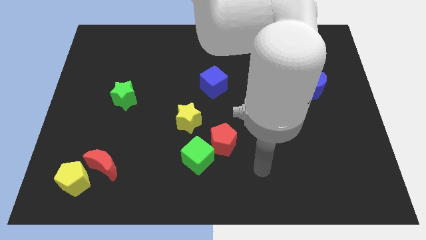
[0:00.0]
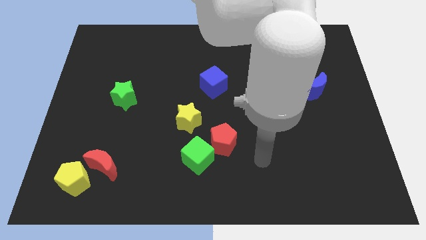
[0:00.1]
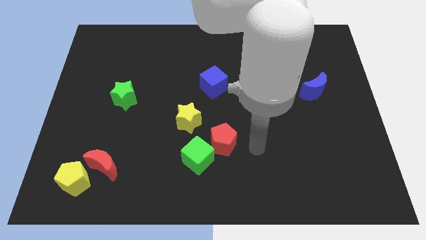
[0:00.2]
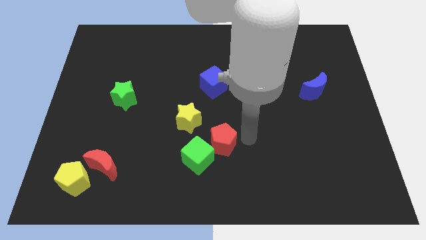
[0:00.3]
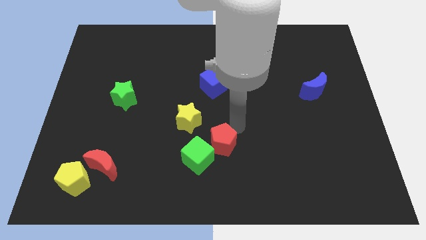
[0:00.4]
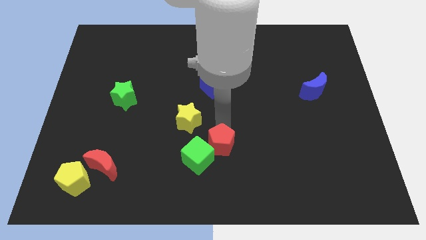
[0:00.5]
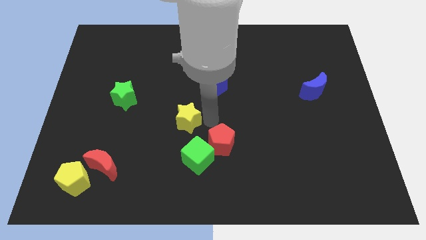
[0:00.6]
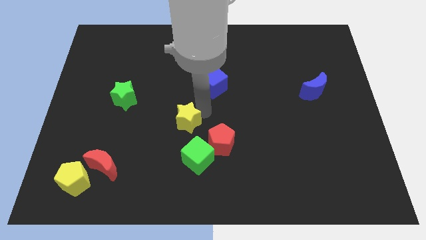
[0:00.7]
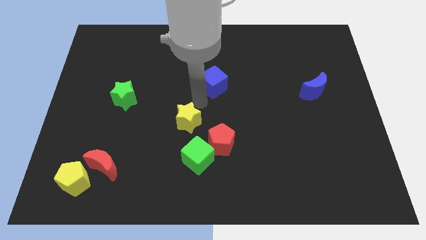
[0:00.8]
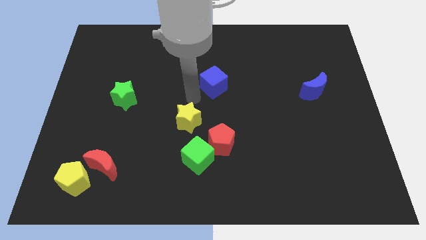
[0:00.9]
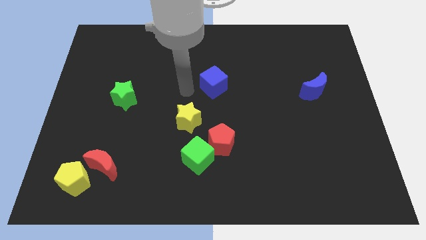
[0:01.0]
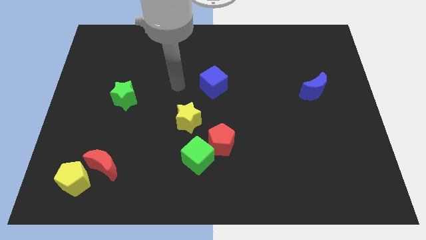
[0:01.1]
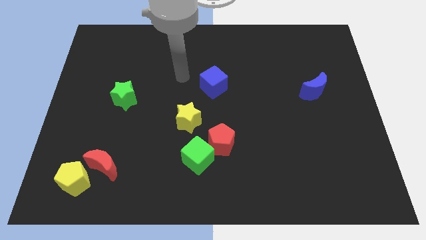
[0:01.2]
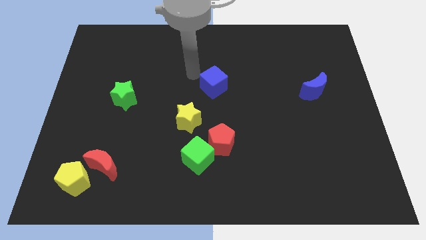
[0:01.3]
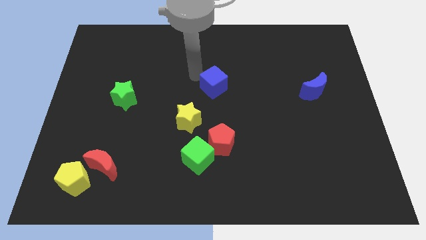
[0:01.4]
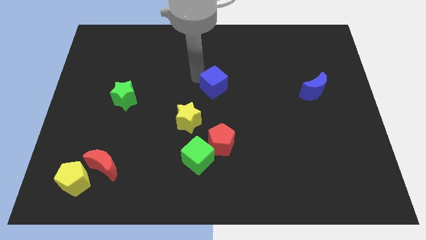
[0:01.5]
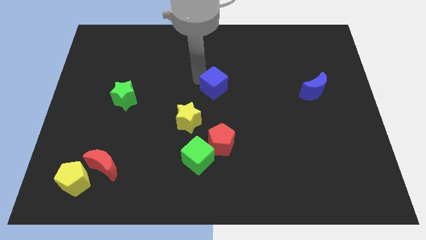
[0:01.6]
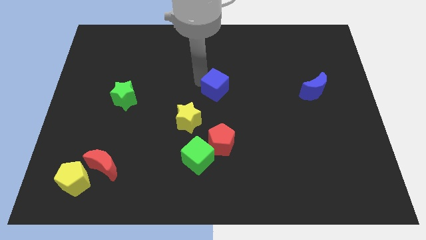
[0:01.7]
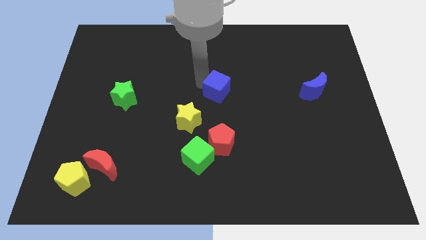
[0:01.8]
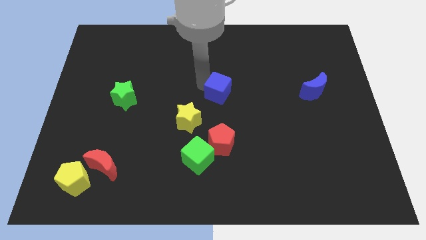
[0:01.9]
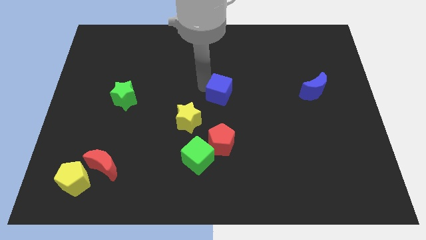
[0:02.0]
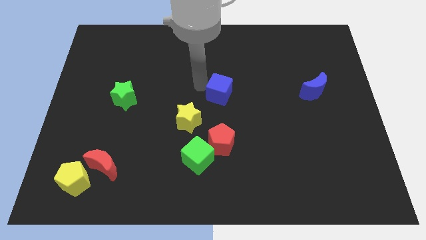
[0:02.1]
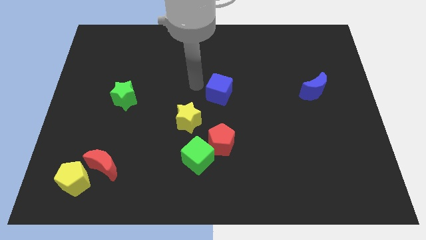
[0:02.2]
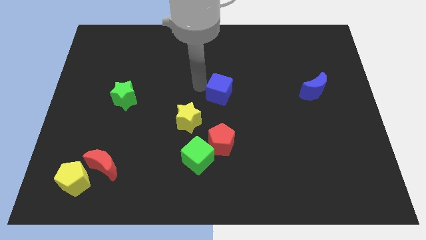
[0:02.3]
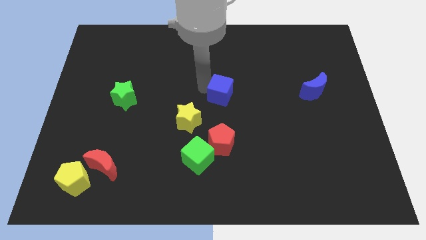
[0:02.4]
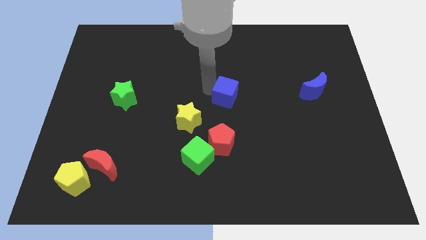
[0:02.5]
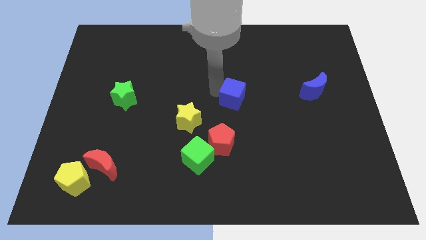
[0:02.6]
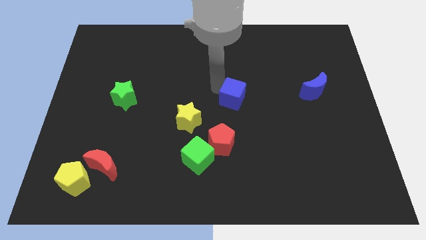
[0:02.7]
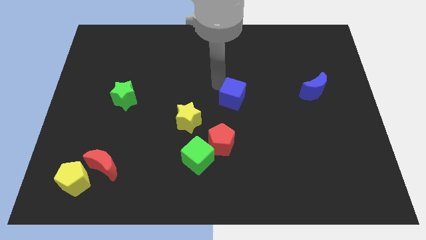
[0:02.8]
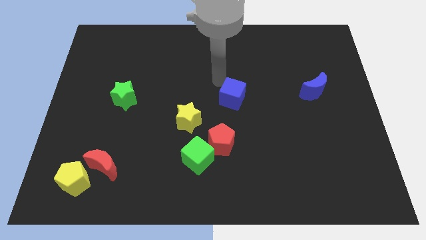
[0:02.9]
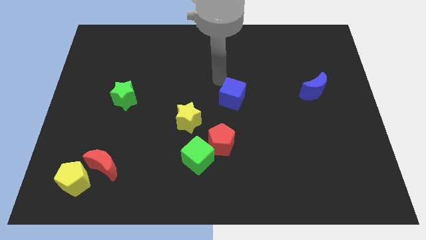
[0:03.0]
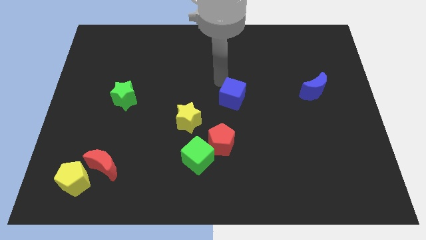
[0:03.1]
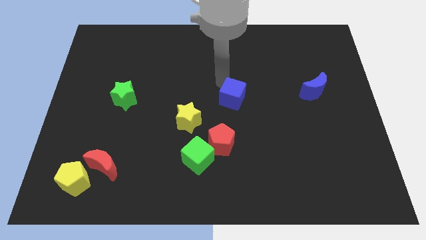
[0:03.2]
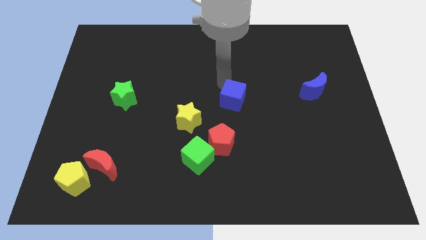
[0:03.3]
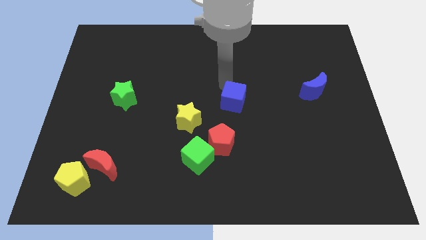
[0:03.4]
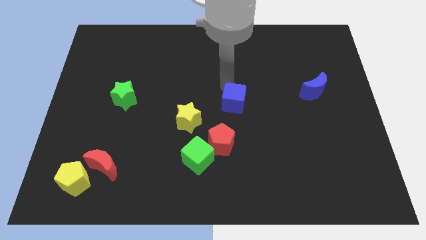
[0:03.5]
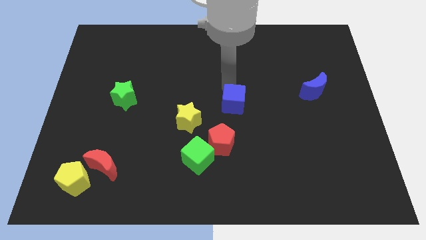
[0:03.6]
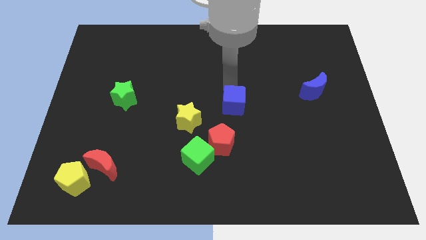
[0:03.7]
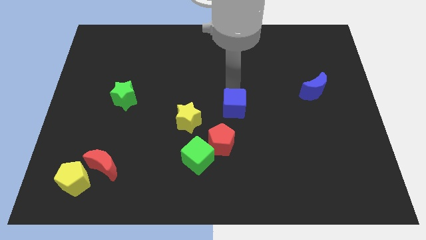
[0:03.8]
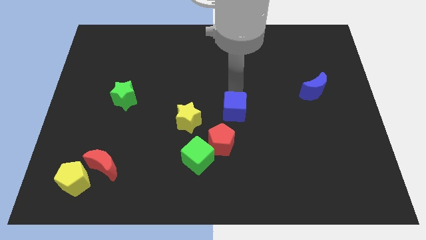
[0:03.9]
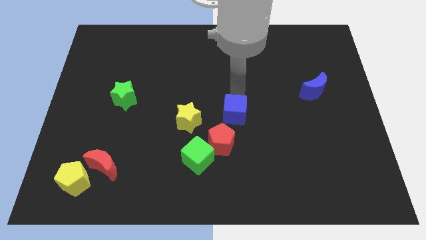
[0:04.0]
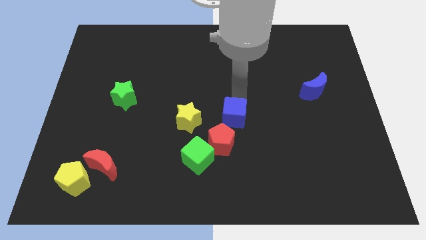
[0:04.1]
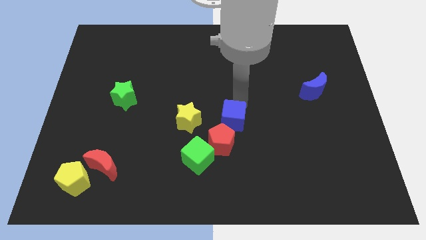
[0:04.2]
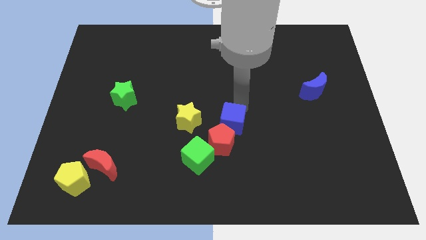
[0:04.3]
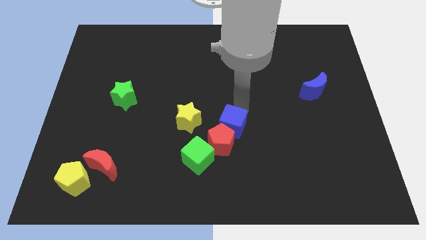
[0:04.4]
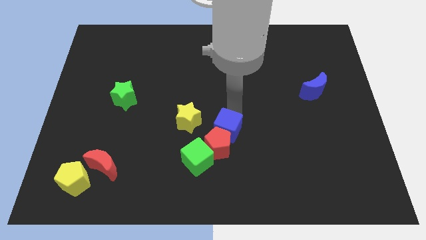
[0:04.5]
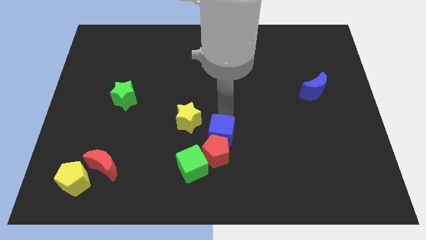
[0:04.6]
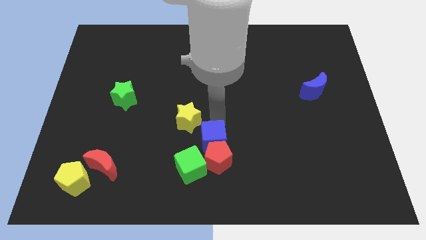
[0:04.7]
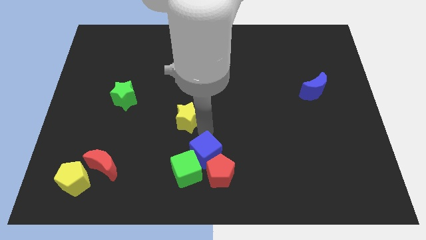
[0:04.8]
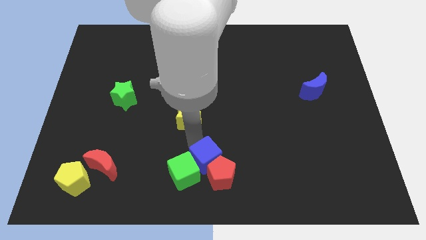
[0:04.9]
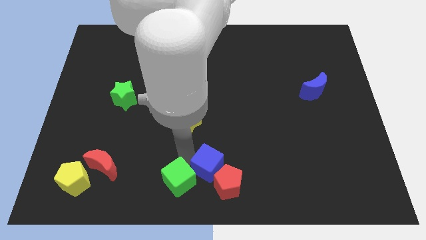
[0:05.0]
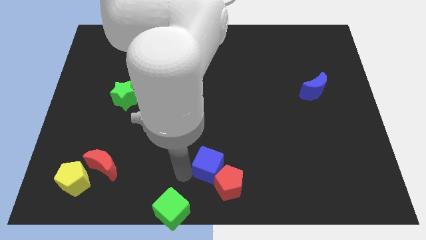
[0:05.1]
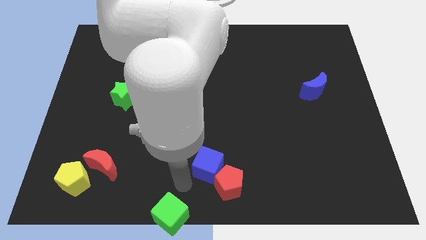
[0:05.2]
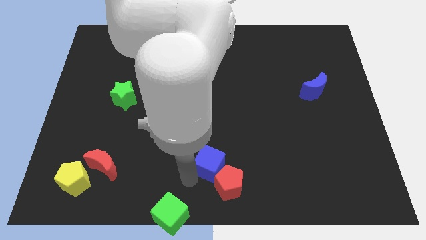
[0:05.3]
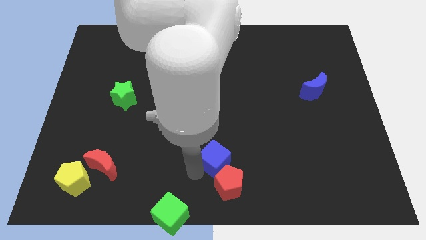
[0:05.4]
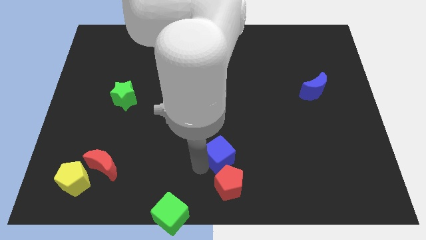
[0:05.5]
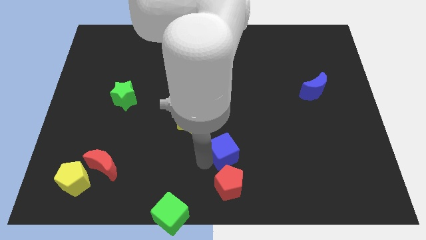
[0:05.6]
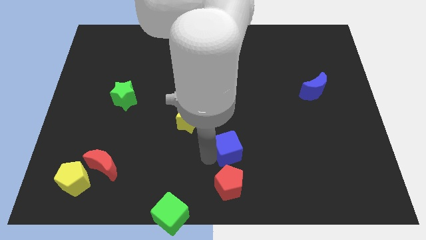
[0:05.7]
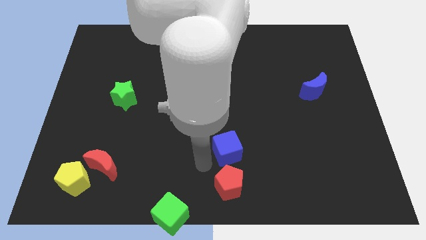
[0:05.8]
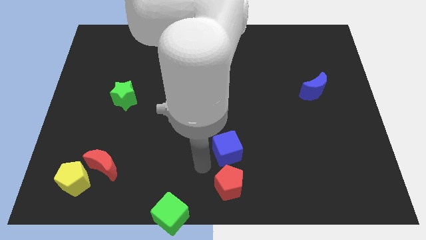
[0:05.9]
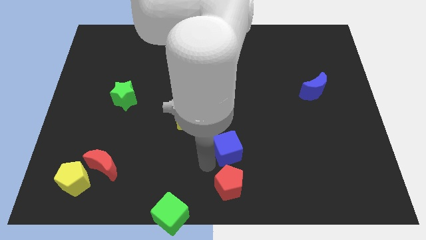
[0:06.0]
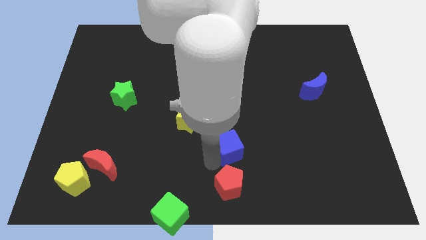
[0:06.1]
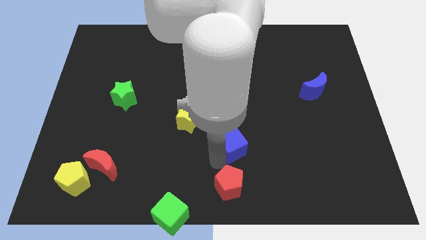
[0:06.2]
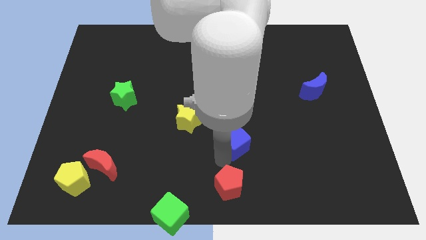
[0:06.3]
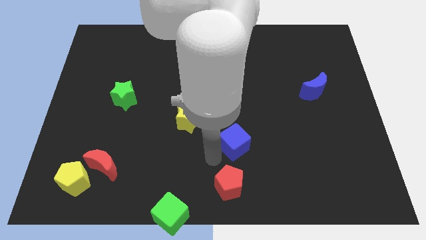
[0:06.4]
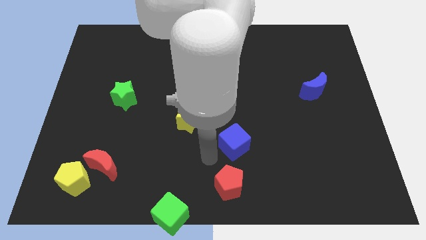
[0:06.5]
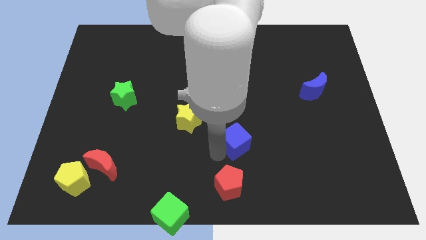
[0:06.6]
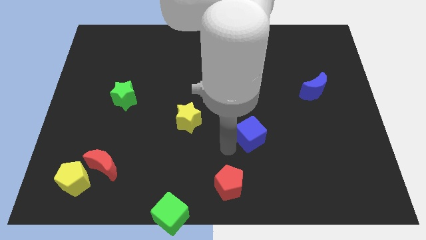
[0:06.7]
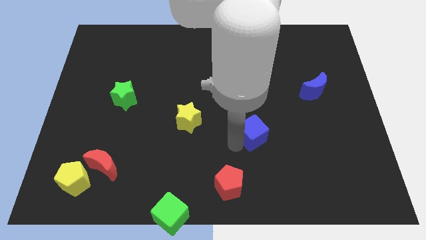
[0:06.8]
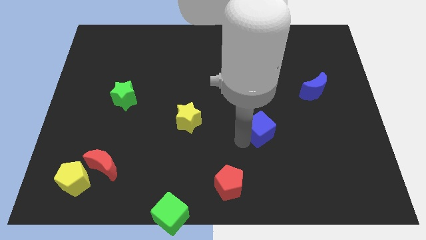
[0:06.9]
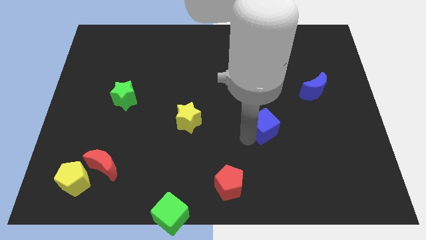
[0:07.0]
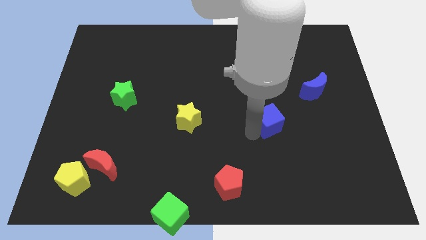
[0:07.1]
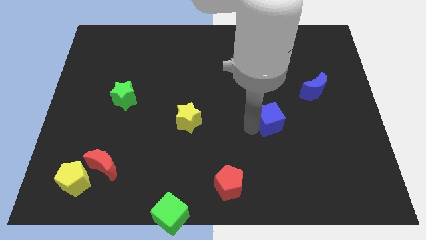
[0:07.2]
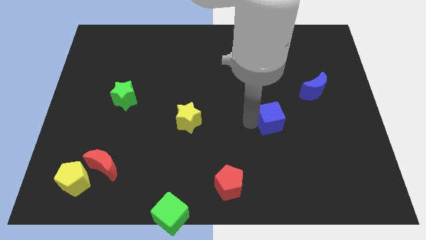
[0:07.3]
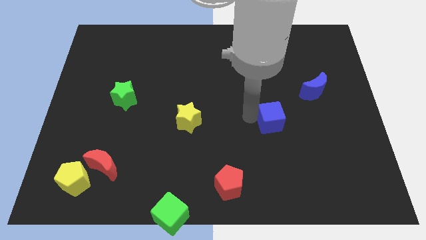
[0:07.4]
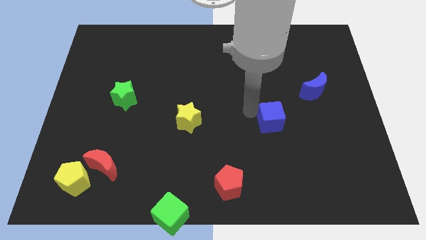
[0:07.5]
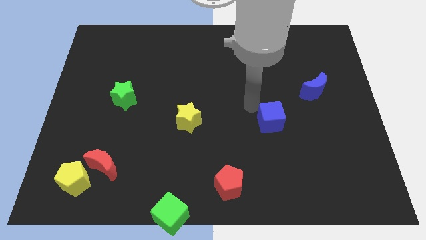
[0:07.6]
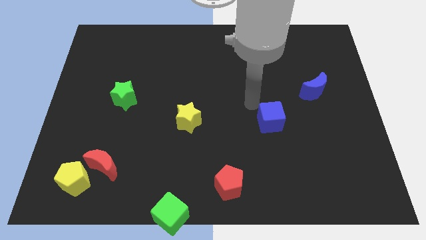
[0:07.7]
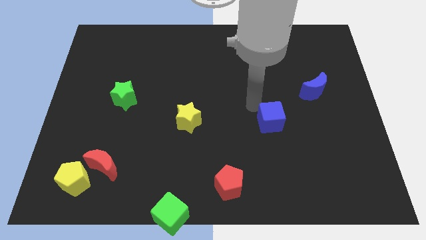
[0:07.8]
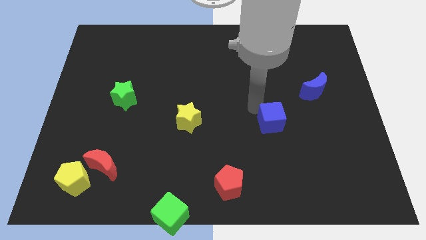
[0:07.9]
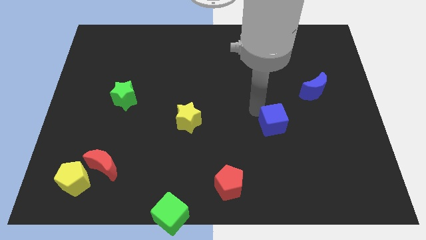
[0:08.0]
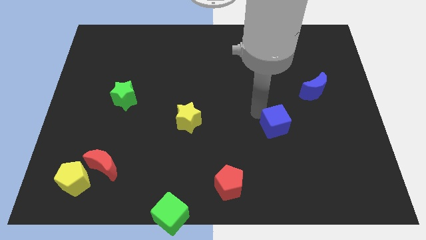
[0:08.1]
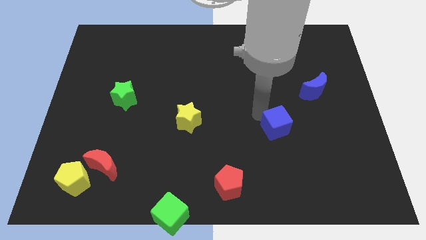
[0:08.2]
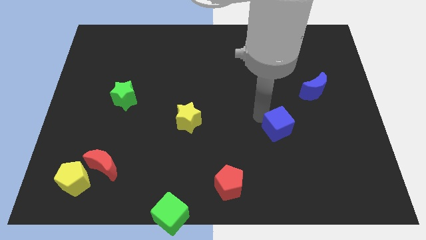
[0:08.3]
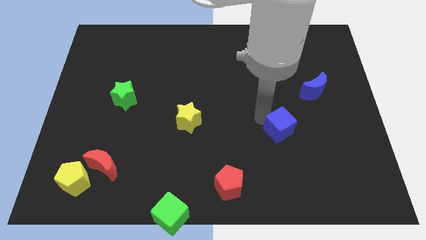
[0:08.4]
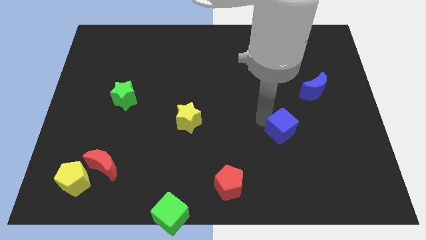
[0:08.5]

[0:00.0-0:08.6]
push the blue cube diagonally down and right
